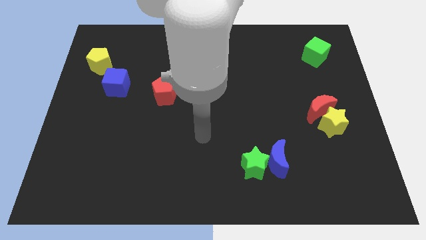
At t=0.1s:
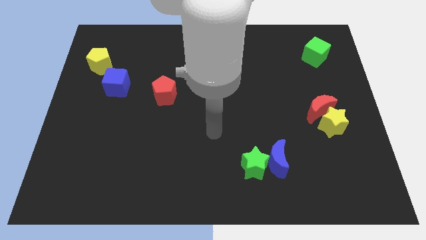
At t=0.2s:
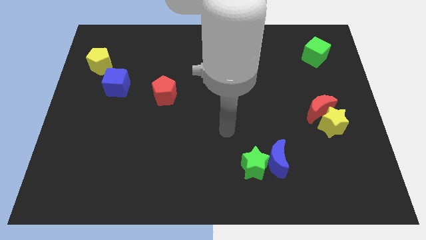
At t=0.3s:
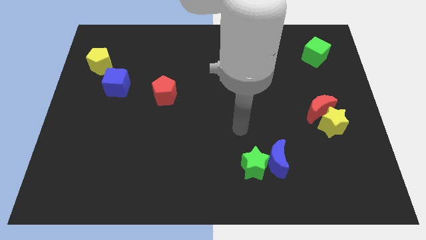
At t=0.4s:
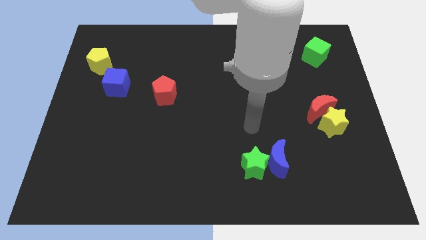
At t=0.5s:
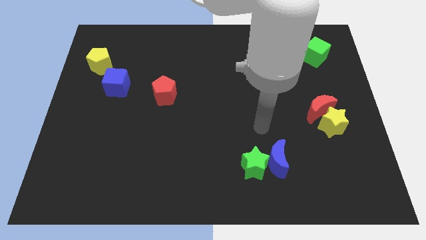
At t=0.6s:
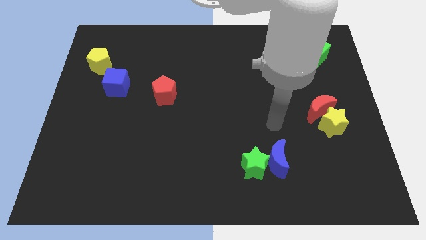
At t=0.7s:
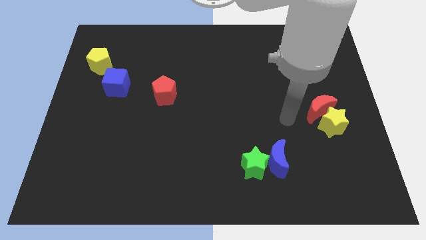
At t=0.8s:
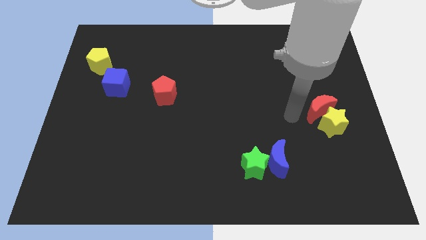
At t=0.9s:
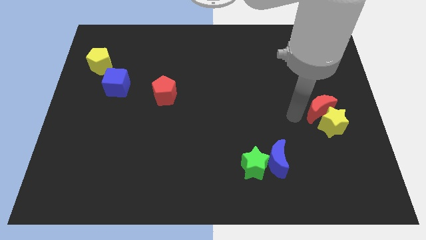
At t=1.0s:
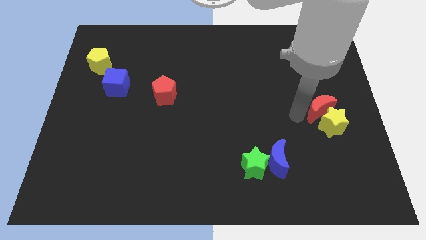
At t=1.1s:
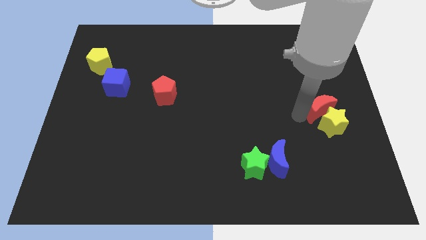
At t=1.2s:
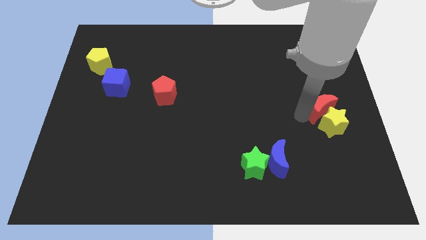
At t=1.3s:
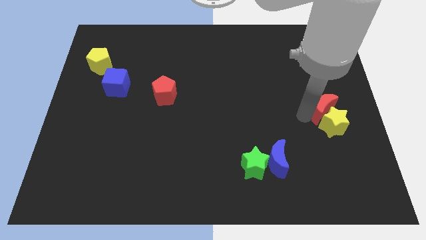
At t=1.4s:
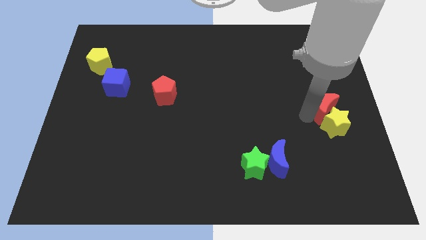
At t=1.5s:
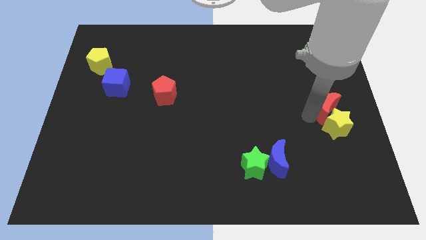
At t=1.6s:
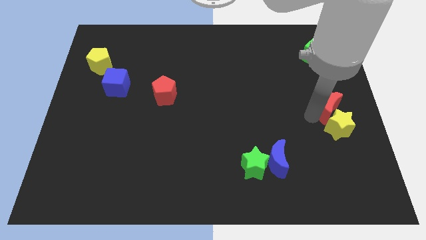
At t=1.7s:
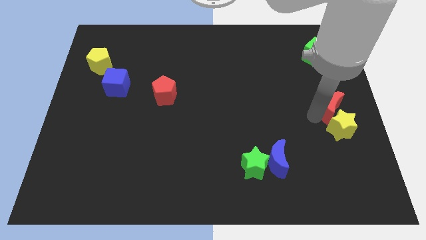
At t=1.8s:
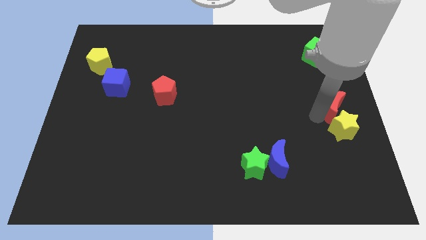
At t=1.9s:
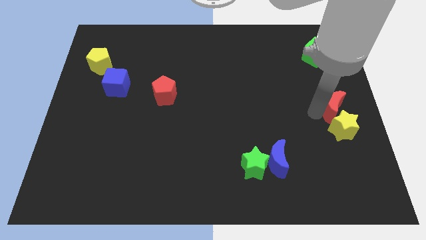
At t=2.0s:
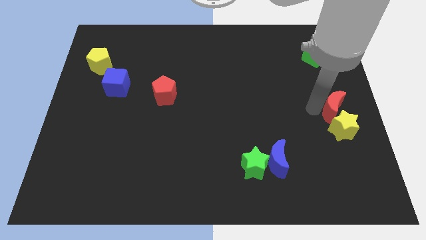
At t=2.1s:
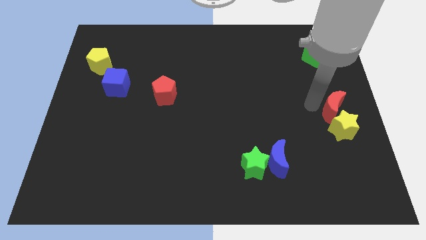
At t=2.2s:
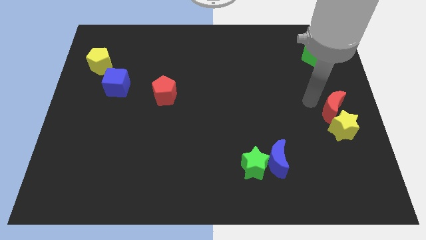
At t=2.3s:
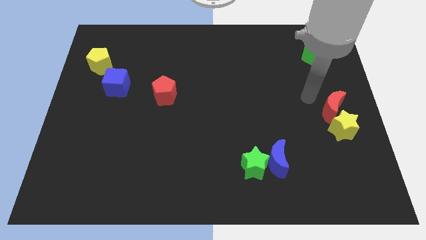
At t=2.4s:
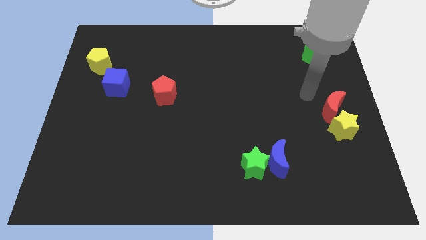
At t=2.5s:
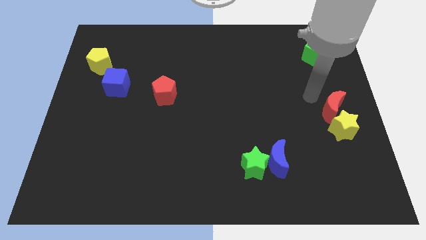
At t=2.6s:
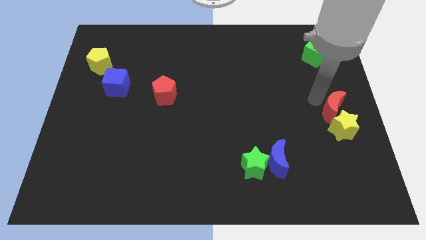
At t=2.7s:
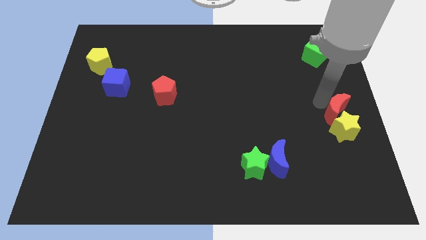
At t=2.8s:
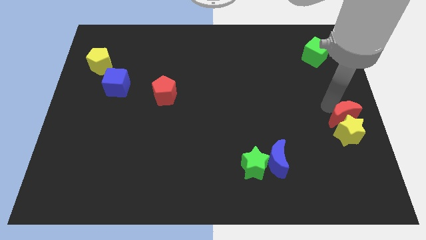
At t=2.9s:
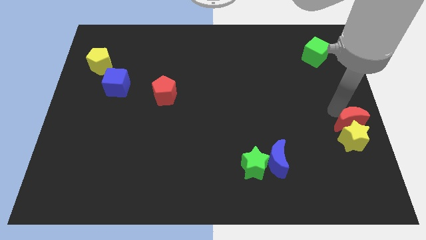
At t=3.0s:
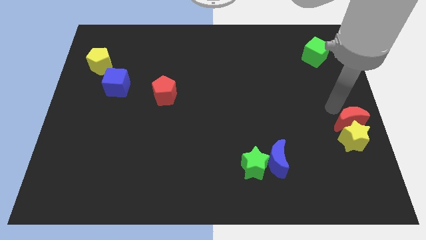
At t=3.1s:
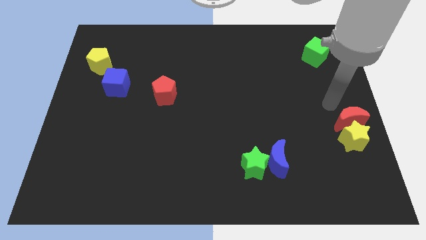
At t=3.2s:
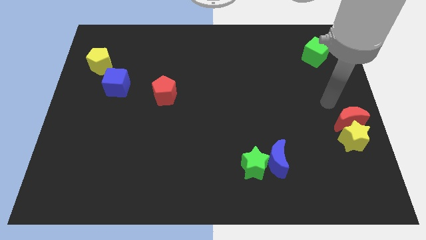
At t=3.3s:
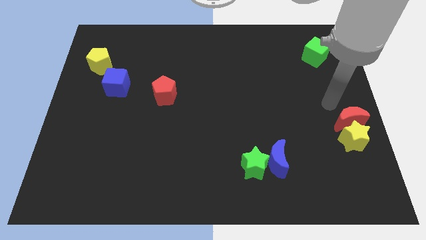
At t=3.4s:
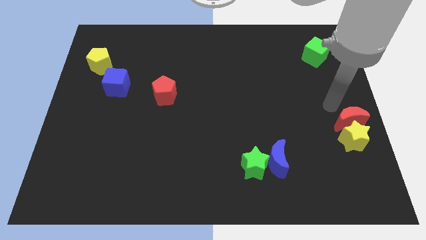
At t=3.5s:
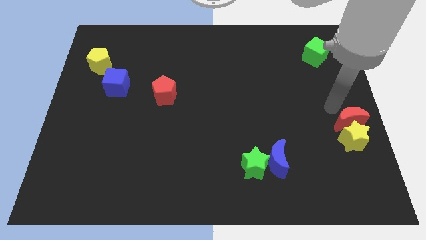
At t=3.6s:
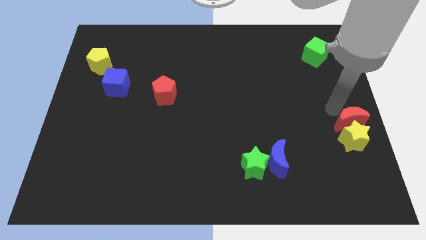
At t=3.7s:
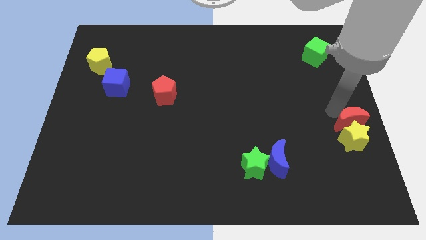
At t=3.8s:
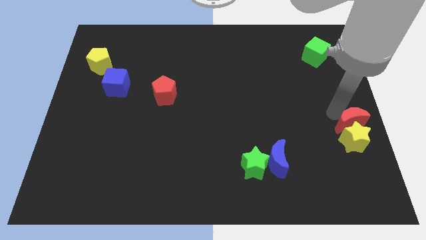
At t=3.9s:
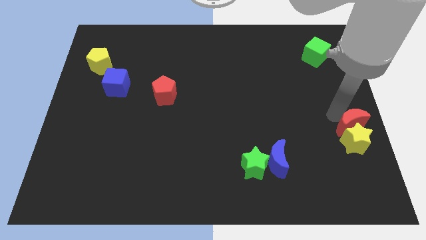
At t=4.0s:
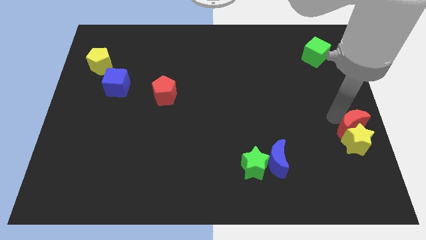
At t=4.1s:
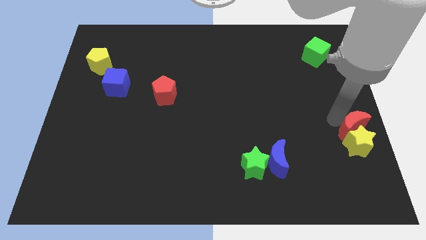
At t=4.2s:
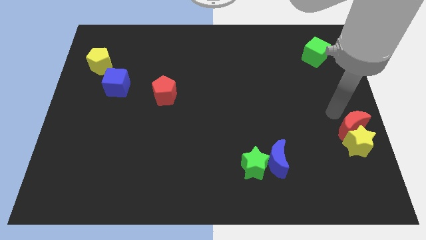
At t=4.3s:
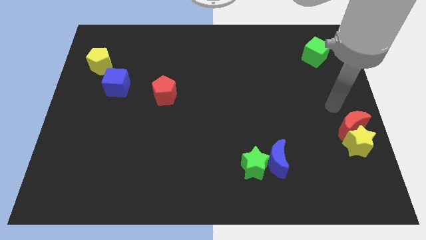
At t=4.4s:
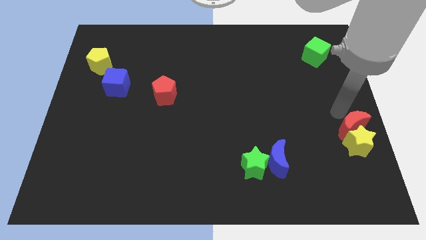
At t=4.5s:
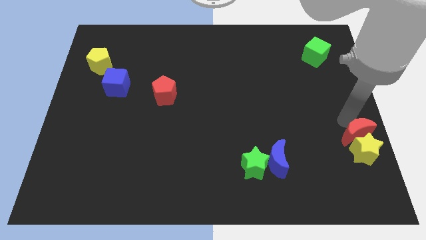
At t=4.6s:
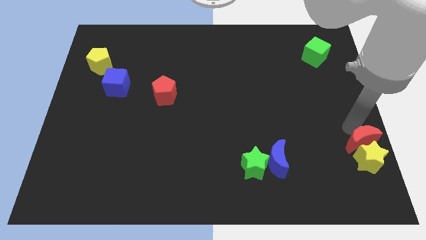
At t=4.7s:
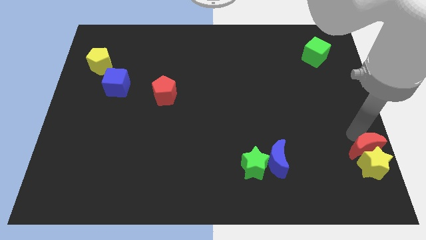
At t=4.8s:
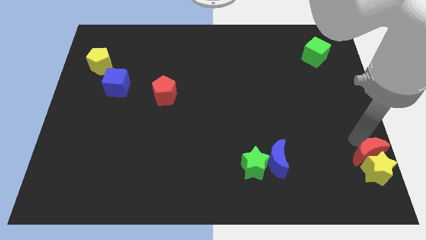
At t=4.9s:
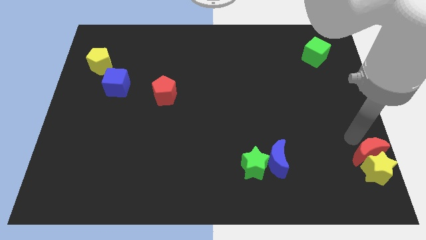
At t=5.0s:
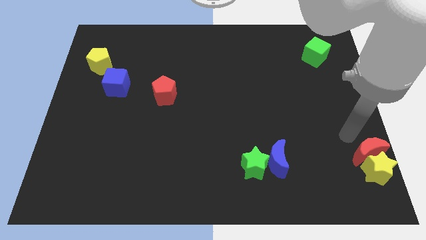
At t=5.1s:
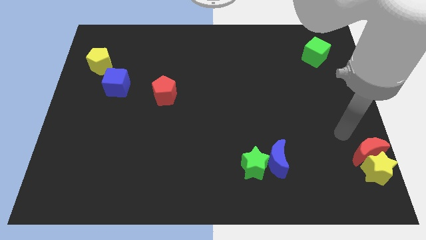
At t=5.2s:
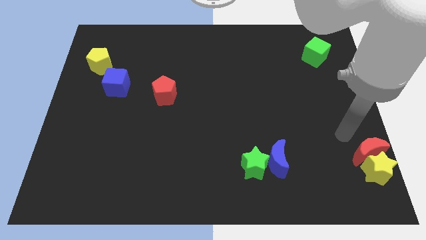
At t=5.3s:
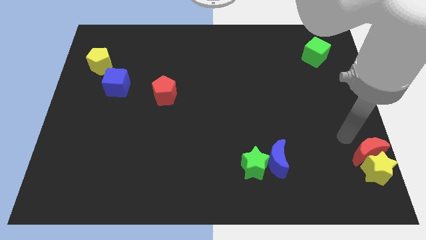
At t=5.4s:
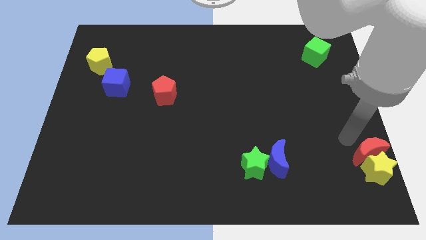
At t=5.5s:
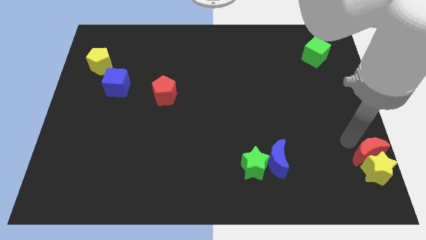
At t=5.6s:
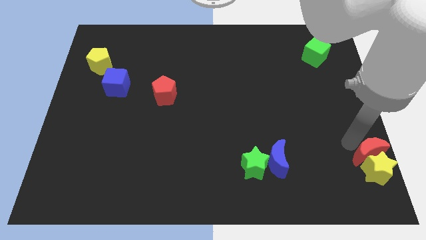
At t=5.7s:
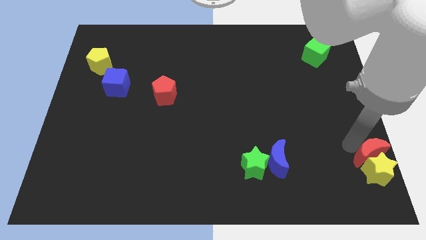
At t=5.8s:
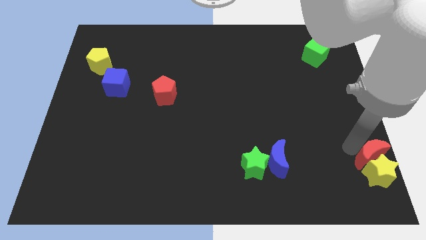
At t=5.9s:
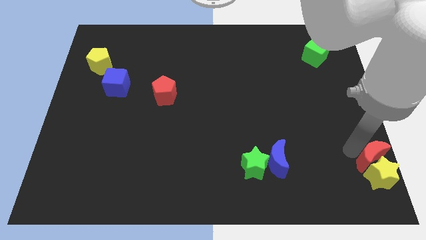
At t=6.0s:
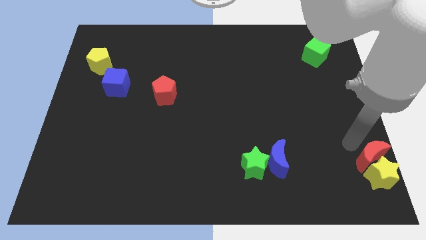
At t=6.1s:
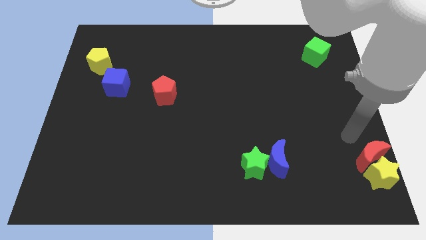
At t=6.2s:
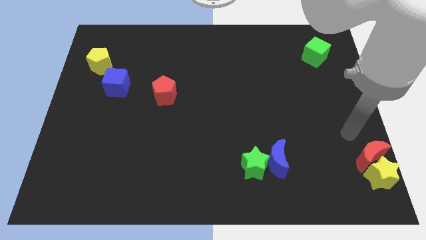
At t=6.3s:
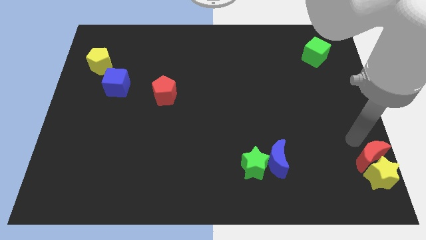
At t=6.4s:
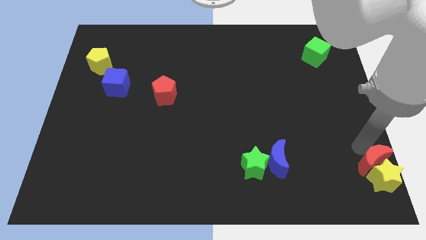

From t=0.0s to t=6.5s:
slide the red moon to the bottom right of the board
